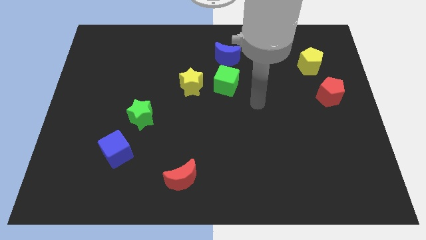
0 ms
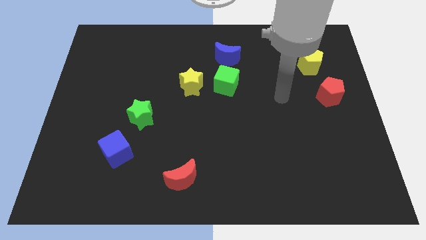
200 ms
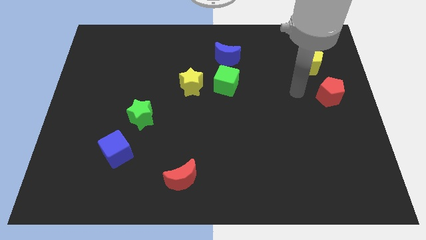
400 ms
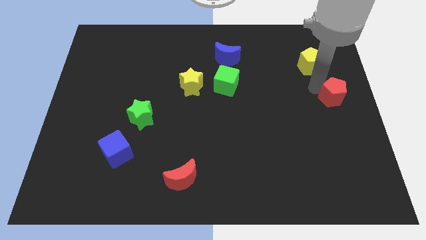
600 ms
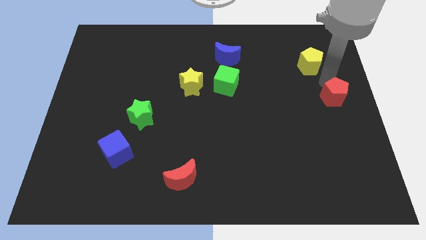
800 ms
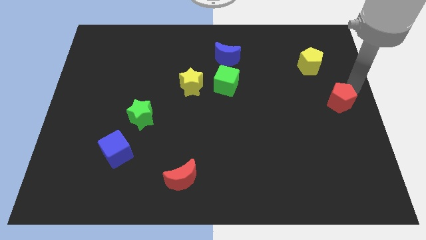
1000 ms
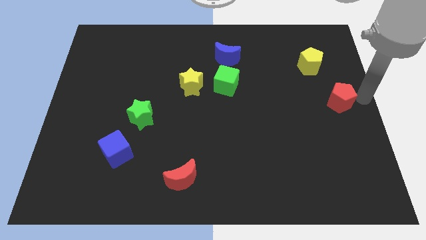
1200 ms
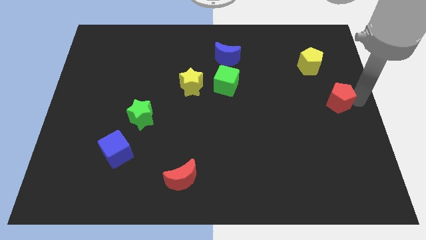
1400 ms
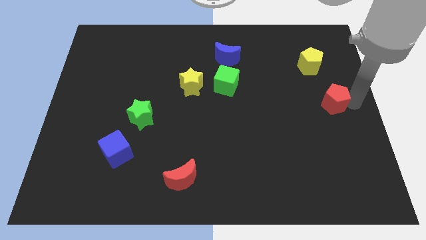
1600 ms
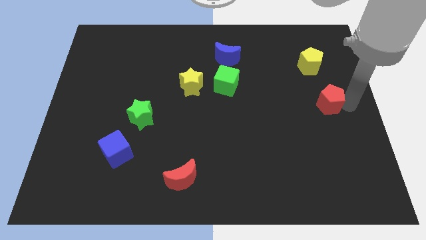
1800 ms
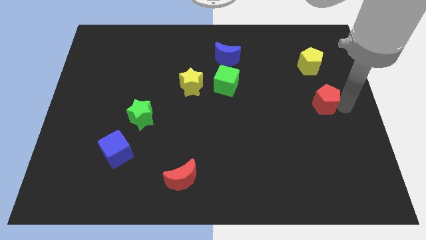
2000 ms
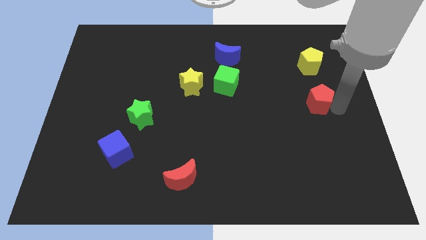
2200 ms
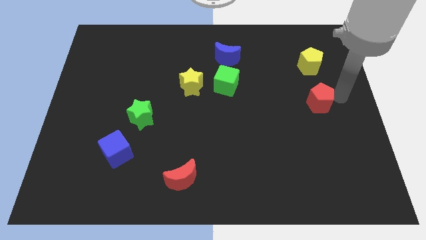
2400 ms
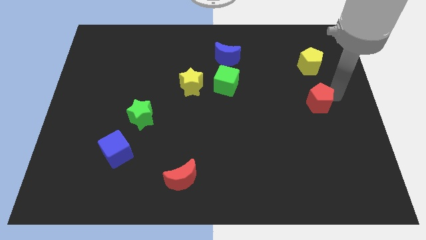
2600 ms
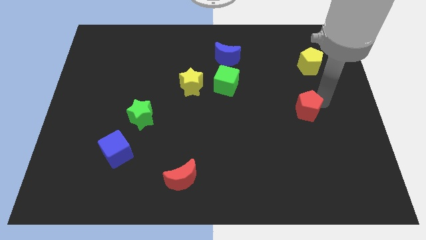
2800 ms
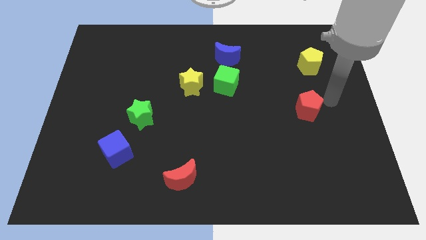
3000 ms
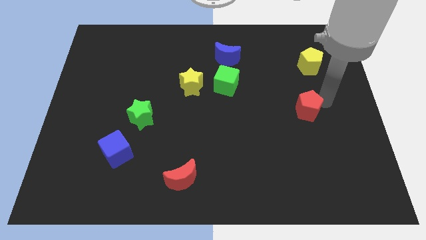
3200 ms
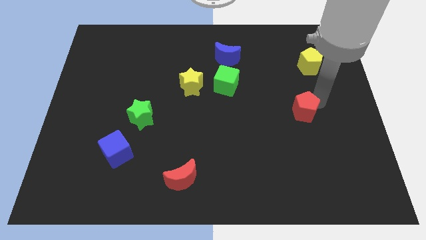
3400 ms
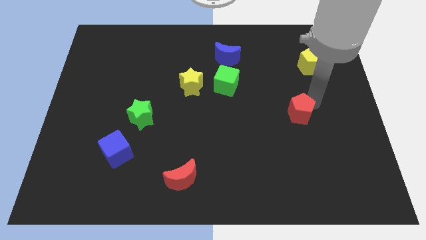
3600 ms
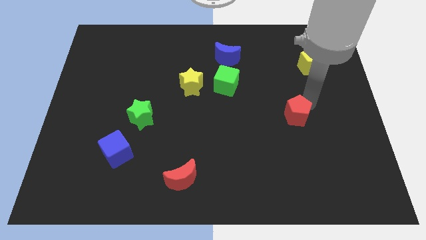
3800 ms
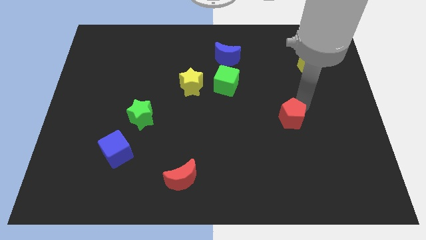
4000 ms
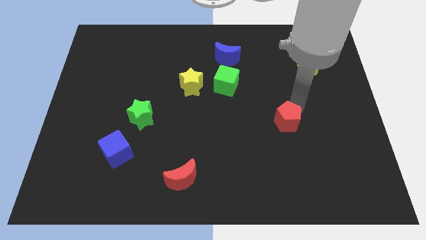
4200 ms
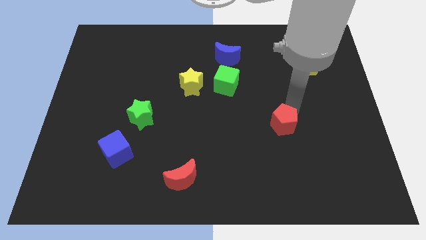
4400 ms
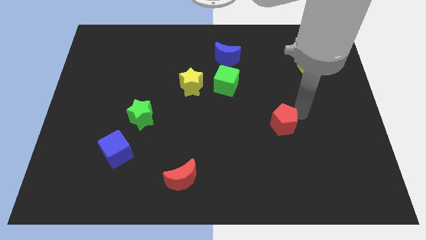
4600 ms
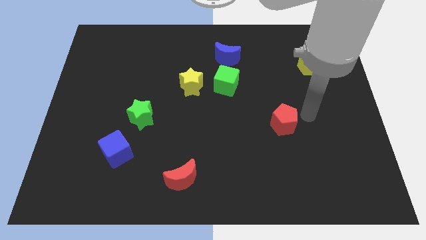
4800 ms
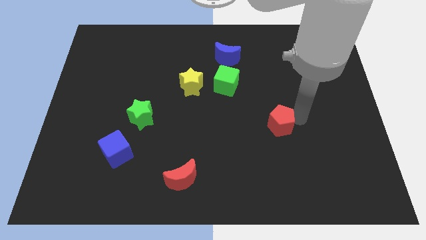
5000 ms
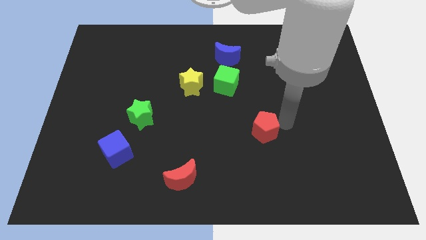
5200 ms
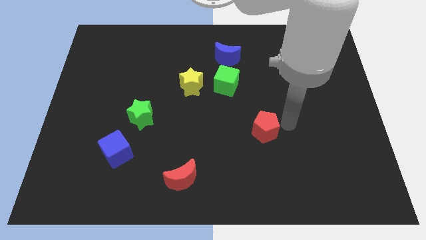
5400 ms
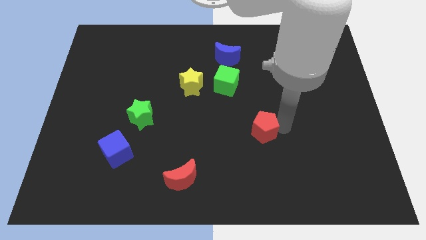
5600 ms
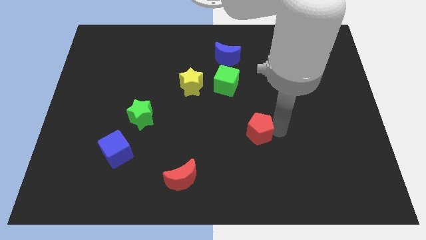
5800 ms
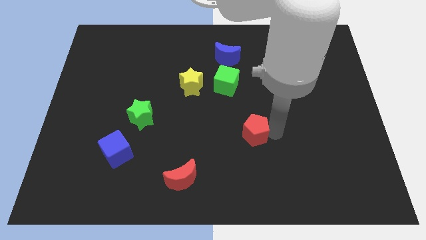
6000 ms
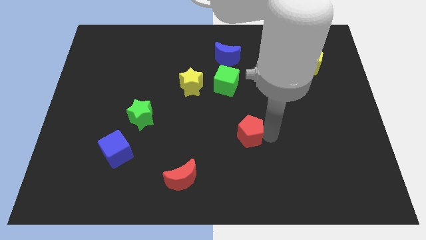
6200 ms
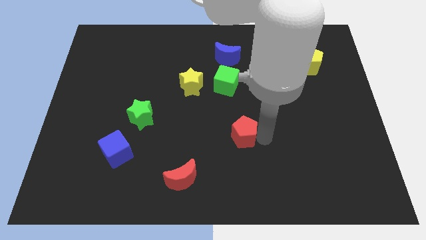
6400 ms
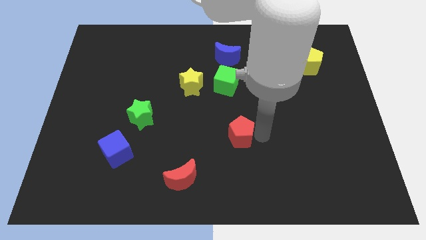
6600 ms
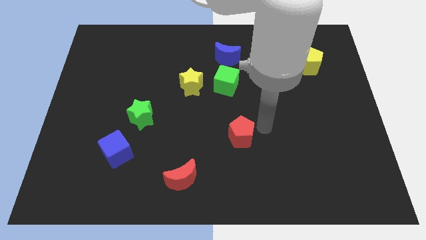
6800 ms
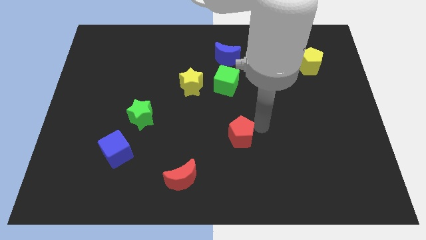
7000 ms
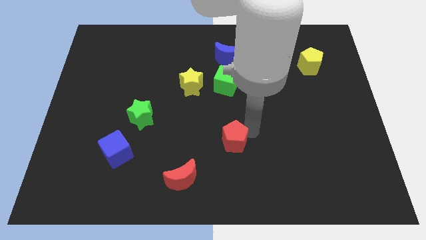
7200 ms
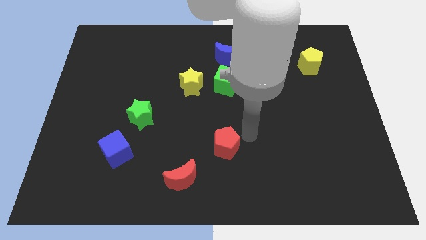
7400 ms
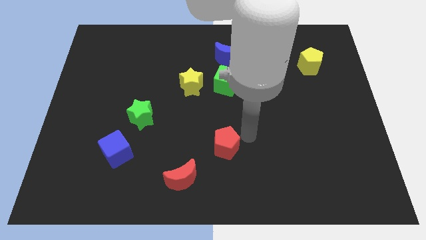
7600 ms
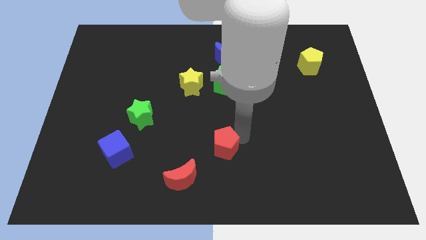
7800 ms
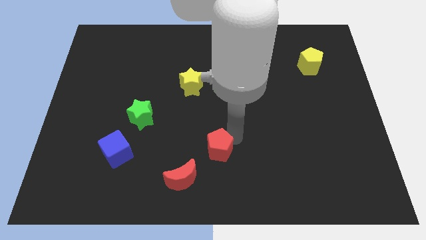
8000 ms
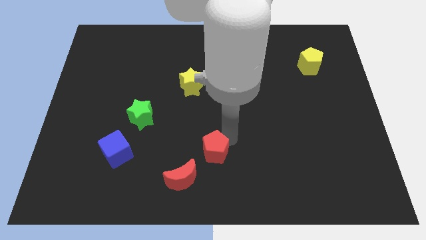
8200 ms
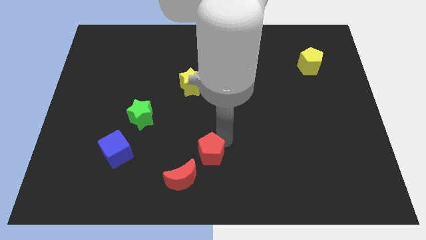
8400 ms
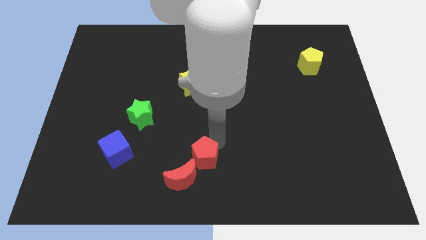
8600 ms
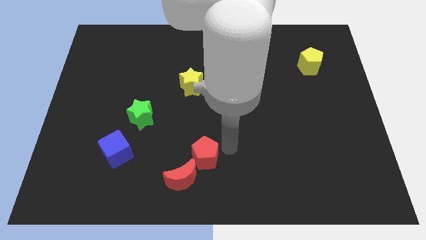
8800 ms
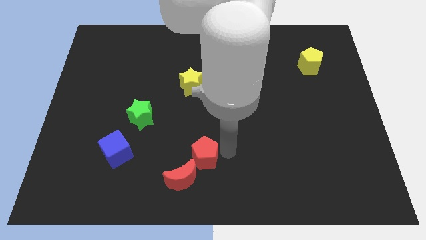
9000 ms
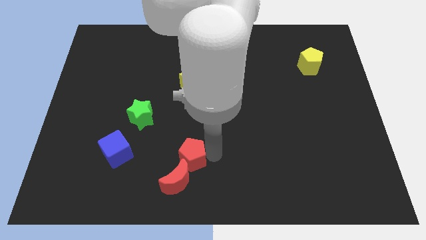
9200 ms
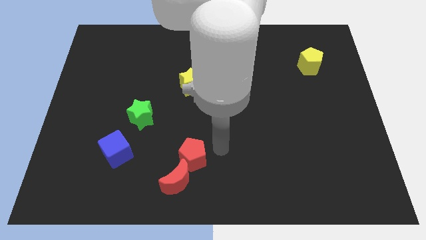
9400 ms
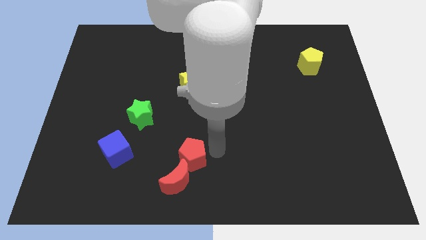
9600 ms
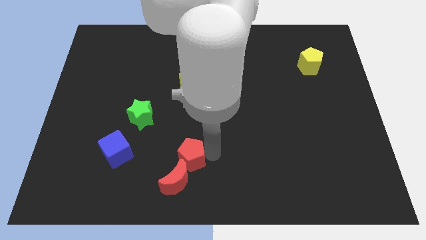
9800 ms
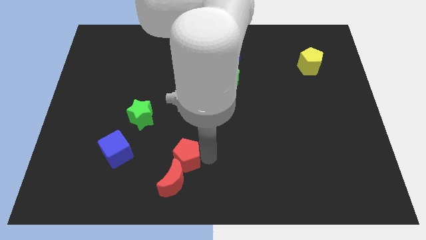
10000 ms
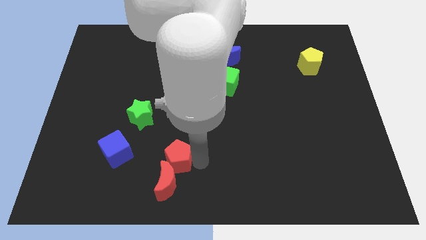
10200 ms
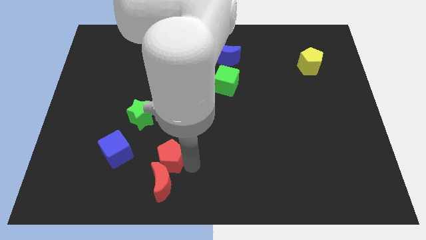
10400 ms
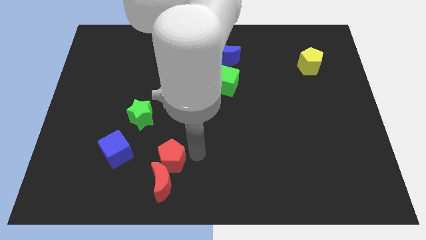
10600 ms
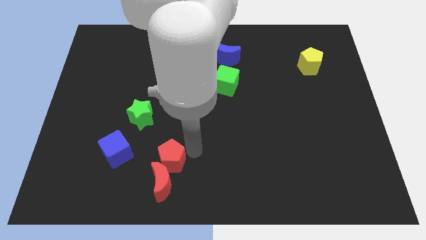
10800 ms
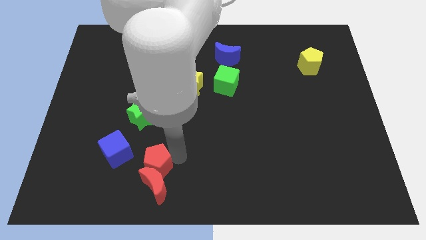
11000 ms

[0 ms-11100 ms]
move the red pentagon to the bottom right side of the blue cube

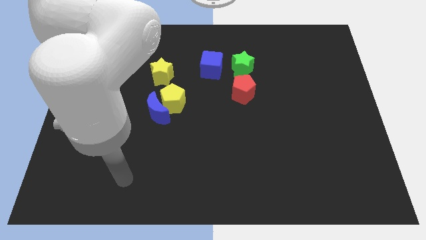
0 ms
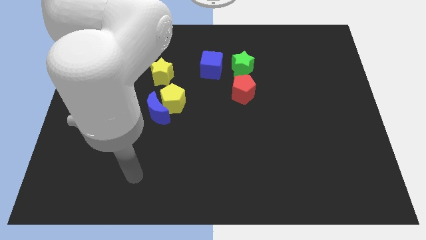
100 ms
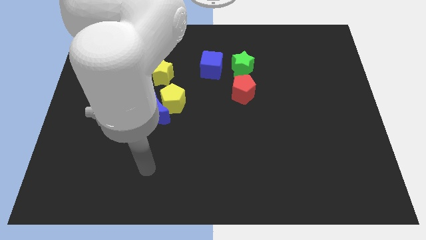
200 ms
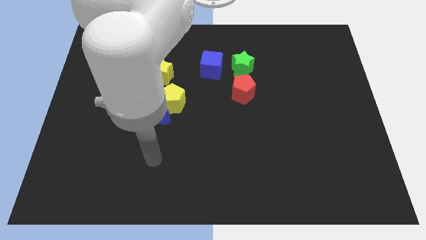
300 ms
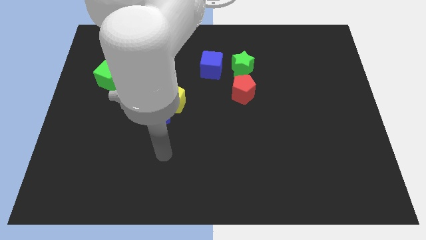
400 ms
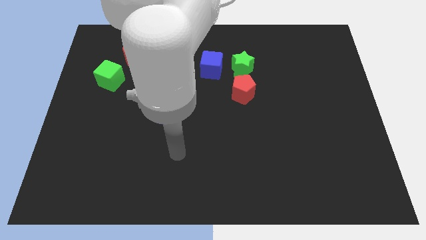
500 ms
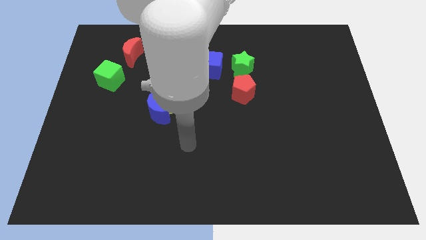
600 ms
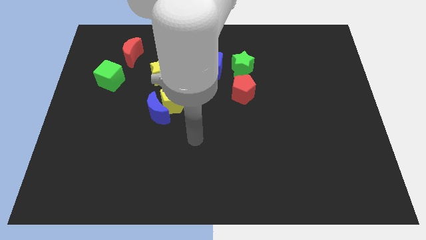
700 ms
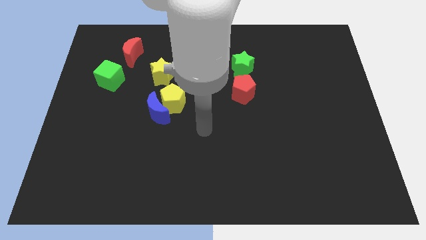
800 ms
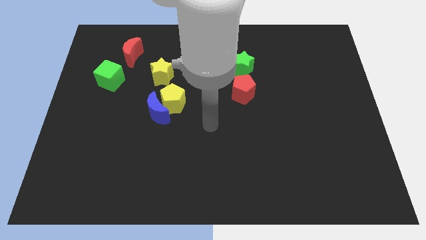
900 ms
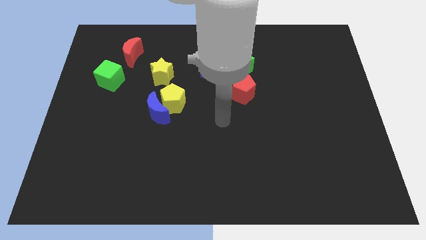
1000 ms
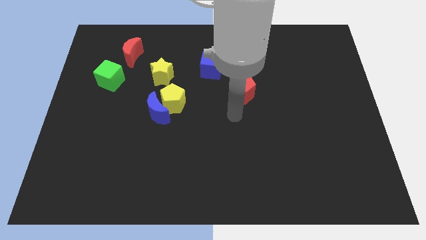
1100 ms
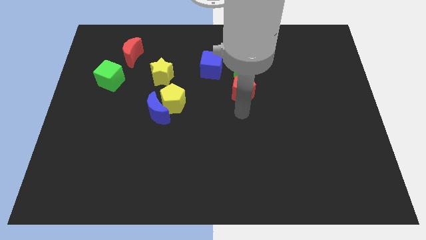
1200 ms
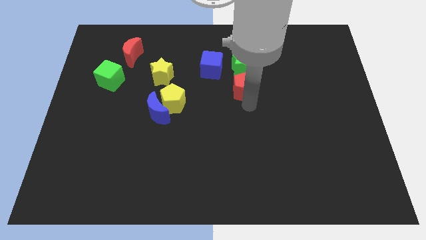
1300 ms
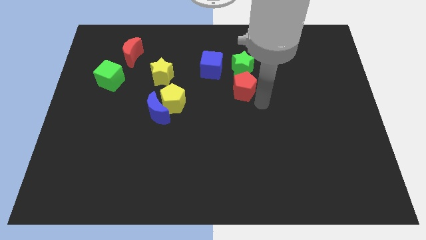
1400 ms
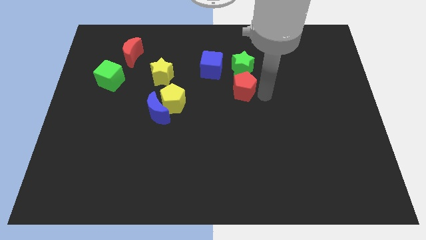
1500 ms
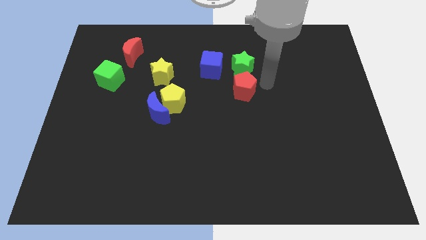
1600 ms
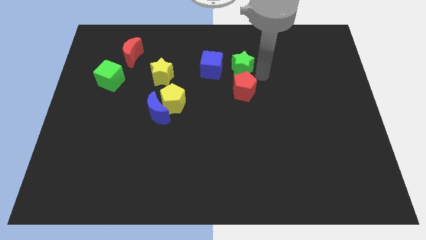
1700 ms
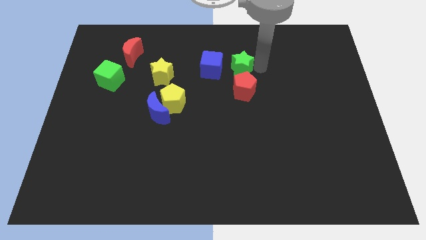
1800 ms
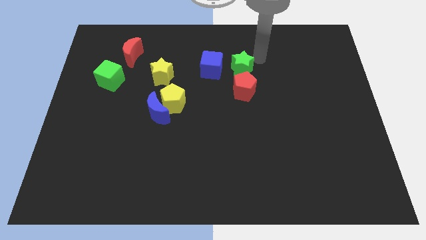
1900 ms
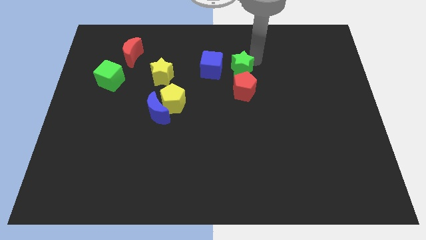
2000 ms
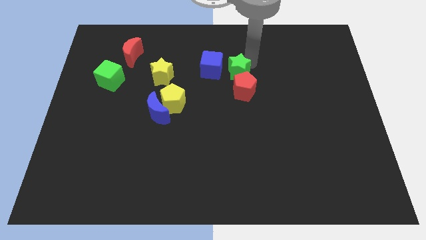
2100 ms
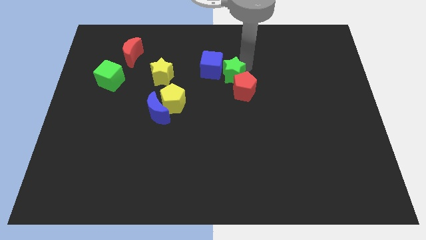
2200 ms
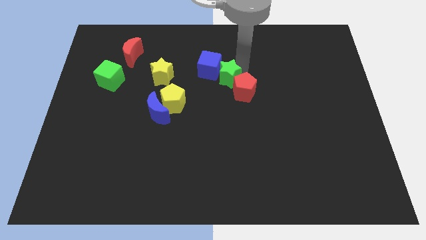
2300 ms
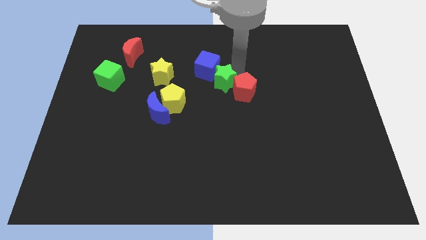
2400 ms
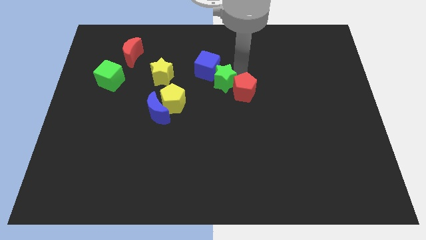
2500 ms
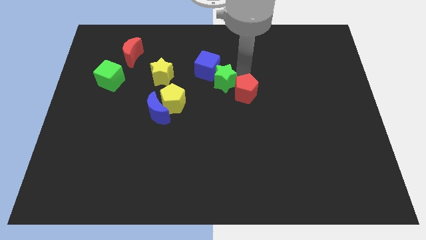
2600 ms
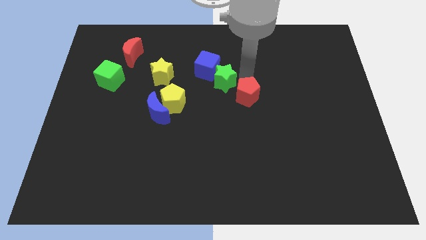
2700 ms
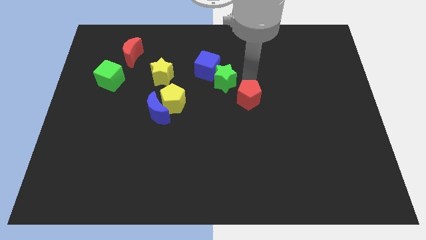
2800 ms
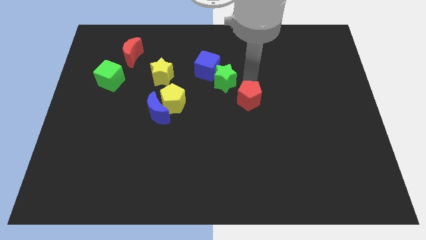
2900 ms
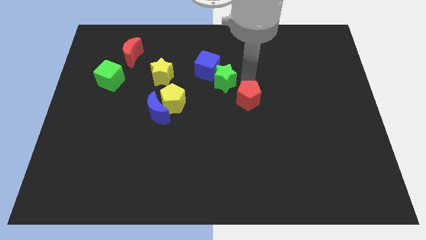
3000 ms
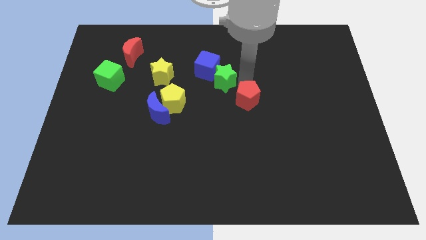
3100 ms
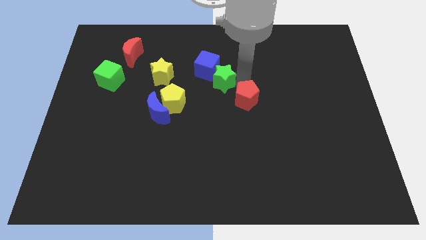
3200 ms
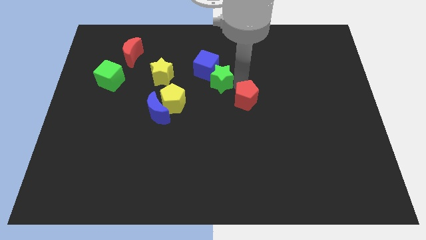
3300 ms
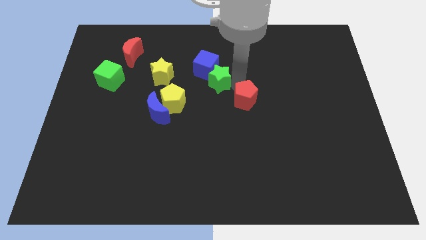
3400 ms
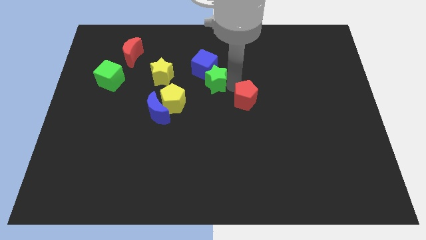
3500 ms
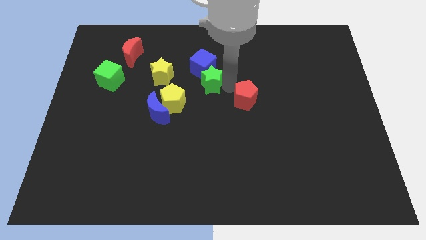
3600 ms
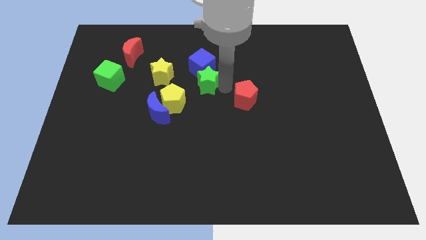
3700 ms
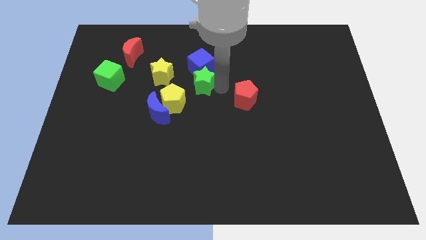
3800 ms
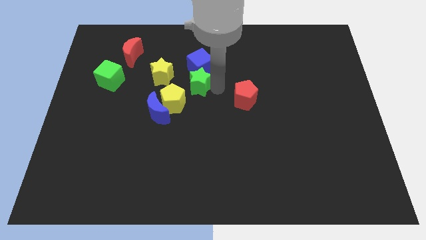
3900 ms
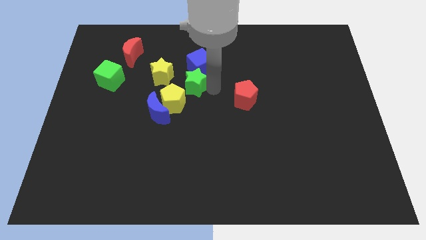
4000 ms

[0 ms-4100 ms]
put the green star above the yellow pentagon
